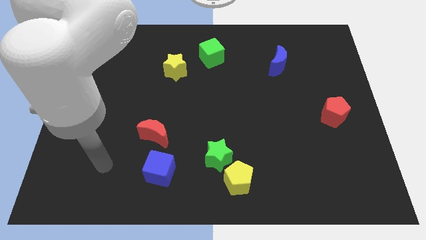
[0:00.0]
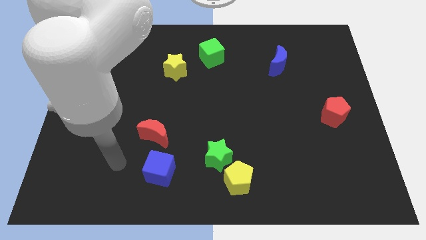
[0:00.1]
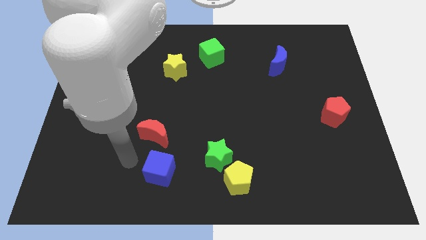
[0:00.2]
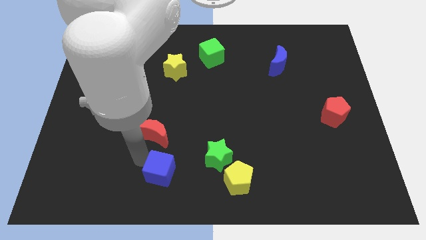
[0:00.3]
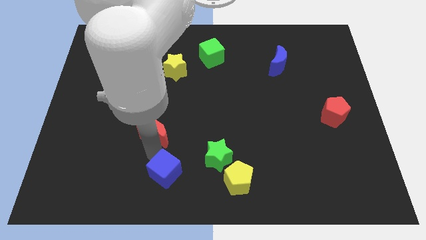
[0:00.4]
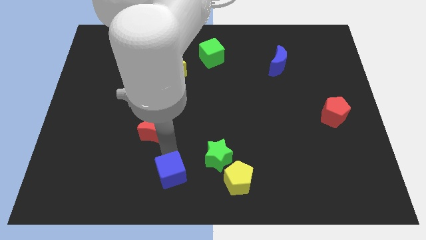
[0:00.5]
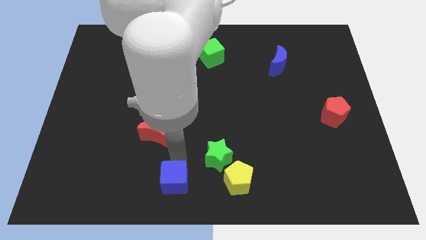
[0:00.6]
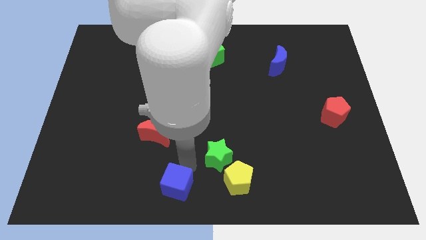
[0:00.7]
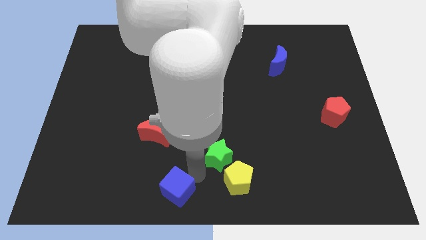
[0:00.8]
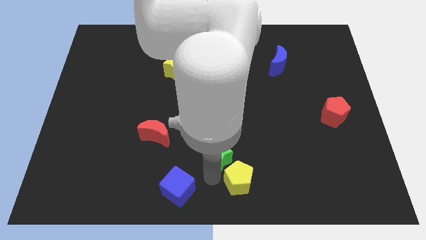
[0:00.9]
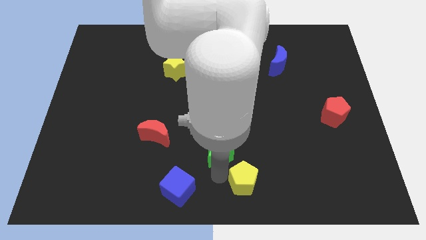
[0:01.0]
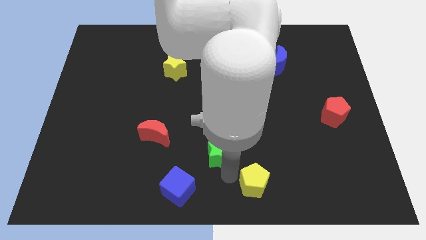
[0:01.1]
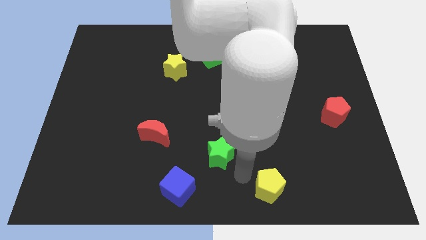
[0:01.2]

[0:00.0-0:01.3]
pull the green star apart from the yellow pentagon

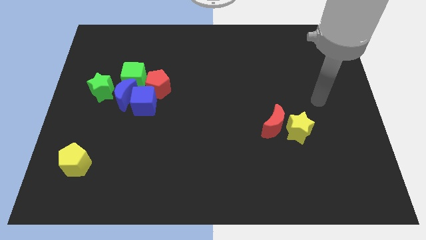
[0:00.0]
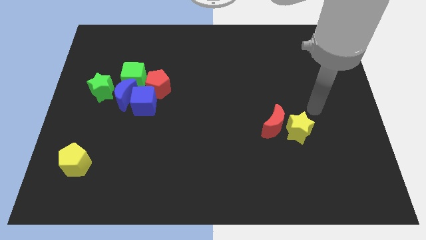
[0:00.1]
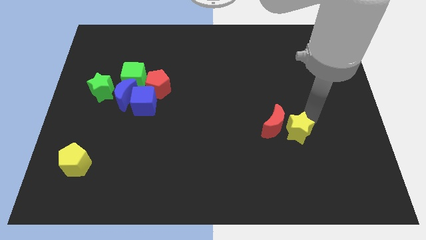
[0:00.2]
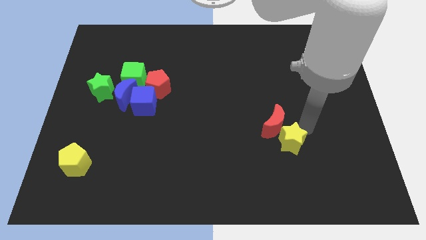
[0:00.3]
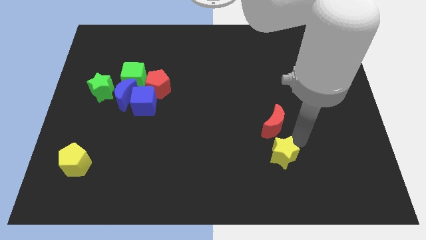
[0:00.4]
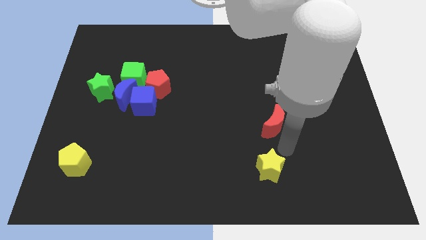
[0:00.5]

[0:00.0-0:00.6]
move the red moon away from the yellow star

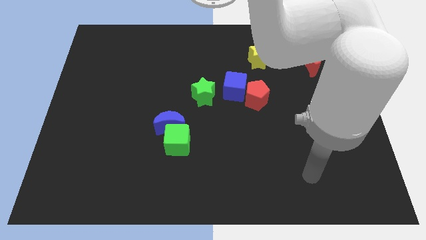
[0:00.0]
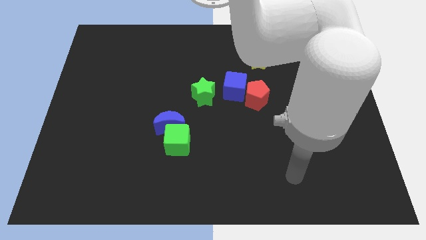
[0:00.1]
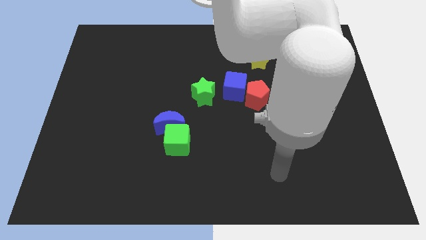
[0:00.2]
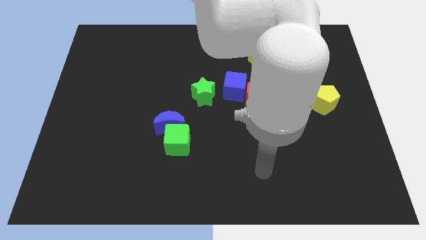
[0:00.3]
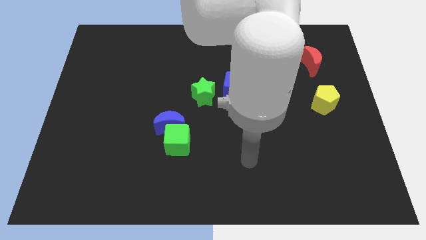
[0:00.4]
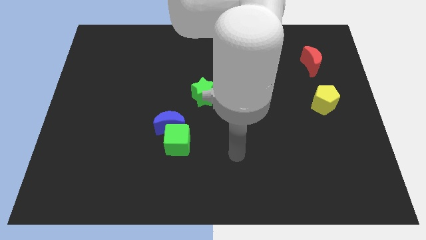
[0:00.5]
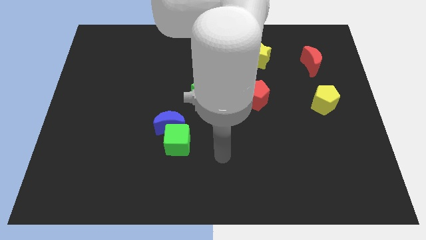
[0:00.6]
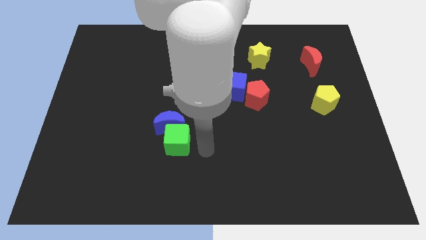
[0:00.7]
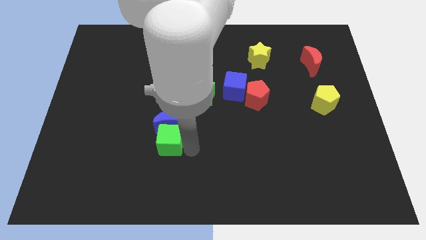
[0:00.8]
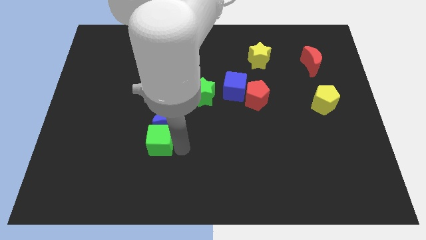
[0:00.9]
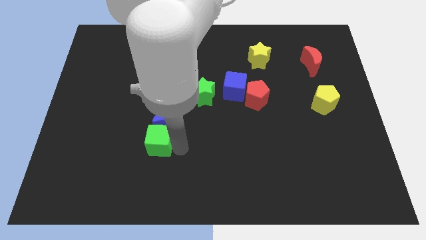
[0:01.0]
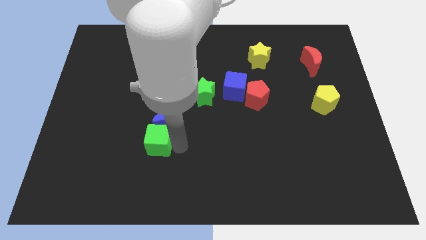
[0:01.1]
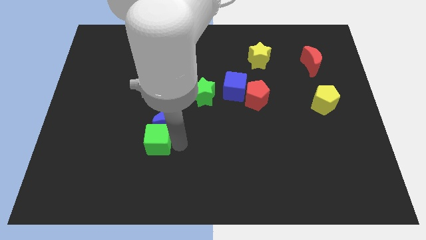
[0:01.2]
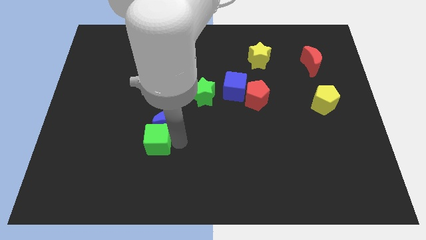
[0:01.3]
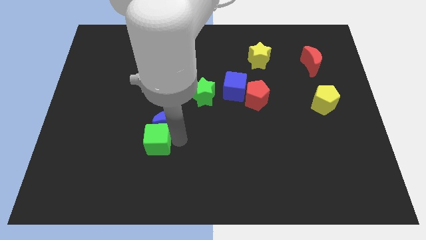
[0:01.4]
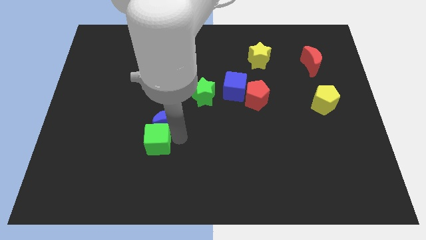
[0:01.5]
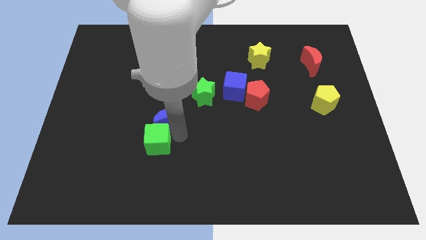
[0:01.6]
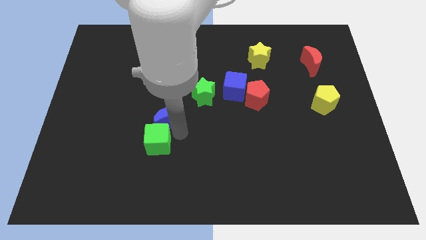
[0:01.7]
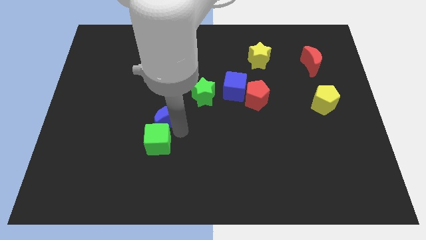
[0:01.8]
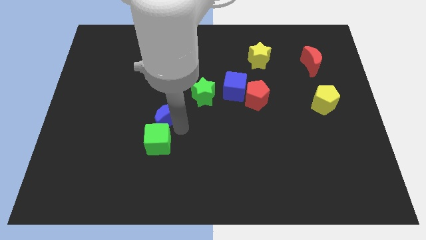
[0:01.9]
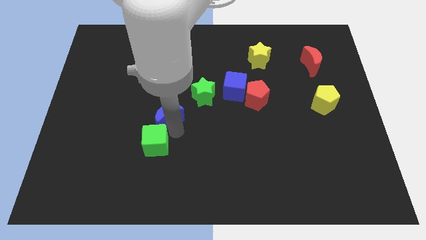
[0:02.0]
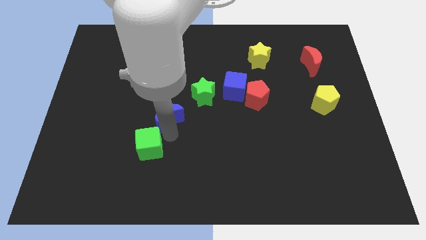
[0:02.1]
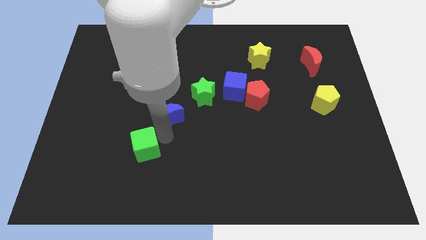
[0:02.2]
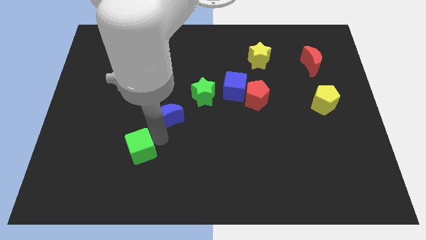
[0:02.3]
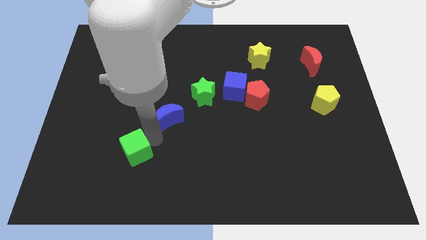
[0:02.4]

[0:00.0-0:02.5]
move the blue moon away from the green cube

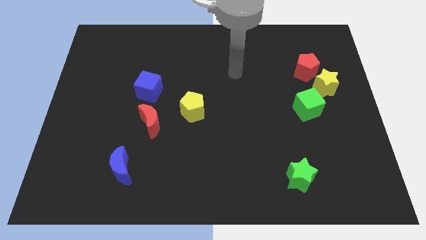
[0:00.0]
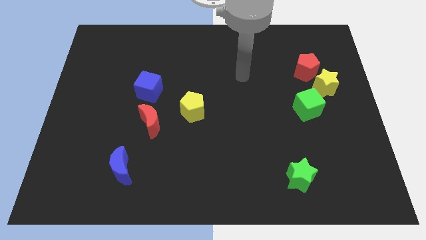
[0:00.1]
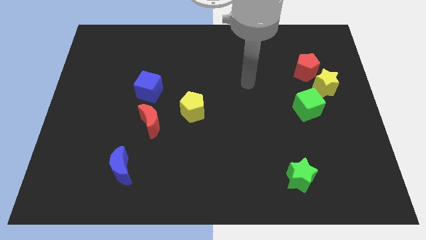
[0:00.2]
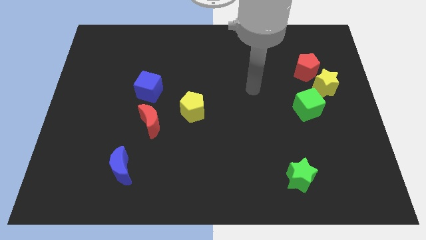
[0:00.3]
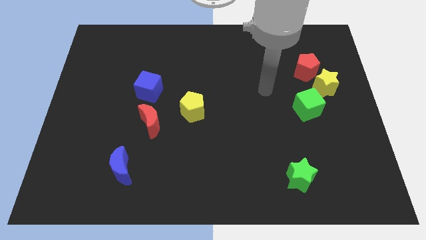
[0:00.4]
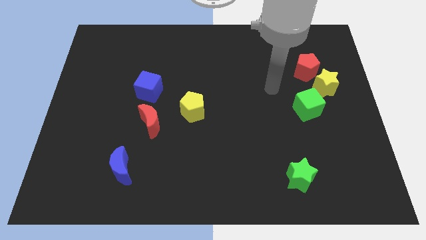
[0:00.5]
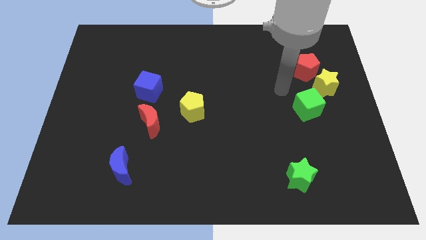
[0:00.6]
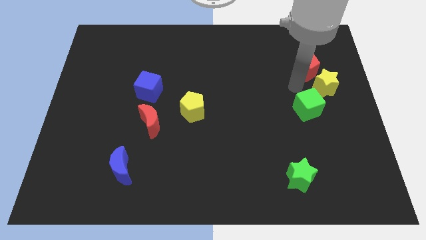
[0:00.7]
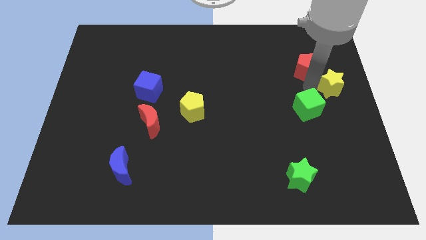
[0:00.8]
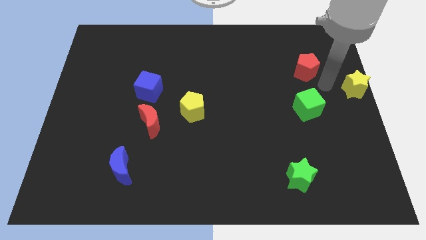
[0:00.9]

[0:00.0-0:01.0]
pull the red pentagon apart from the yellow star

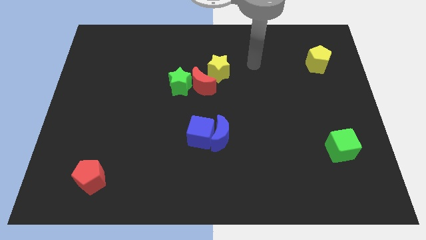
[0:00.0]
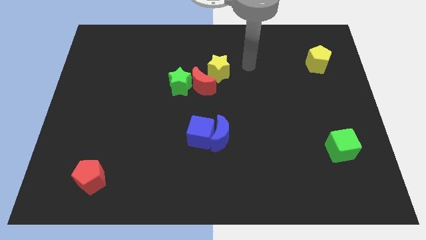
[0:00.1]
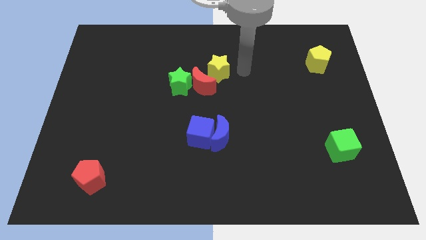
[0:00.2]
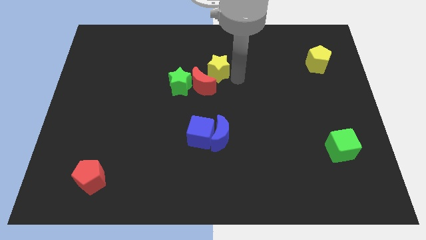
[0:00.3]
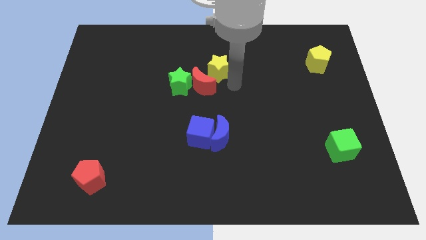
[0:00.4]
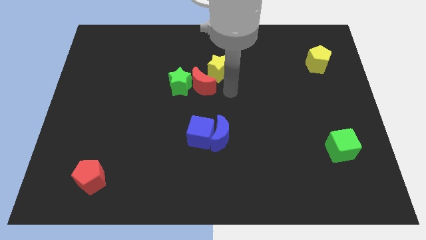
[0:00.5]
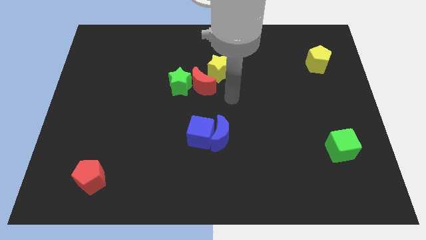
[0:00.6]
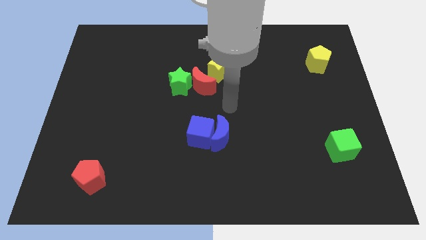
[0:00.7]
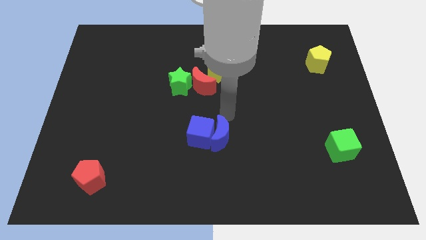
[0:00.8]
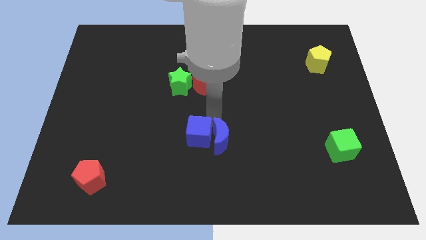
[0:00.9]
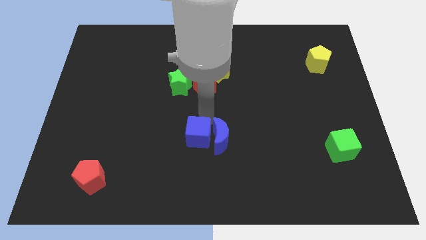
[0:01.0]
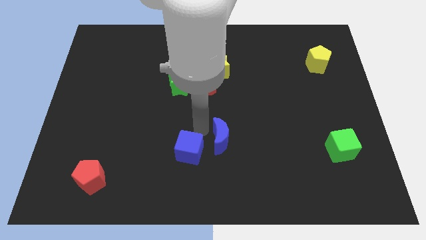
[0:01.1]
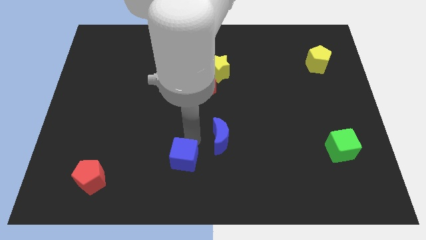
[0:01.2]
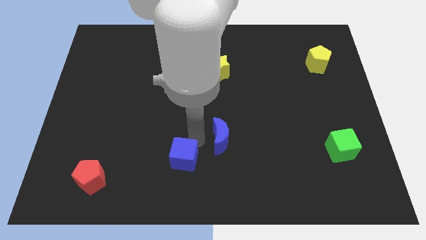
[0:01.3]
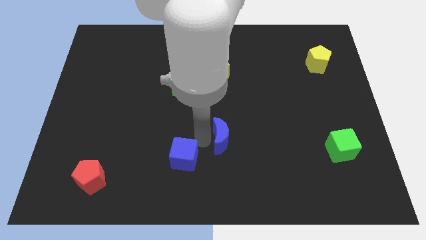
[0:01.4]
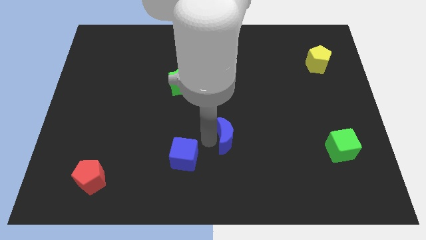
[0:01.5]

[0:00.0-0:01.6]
separate the blue moon from the blue cube

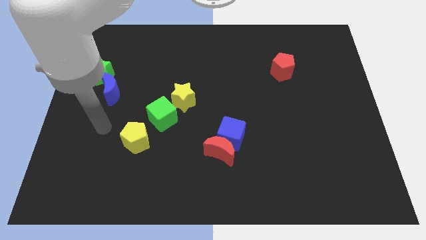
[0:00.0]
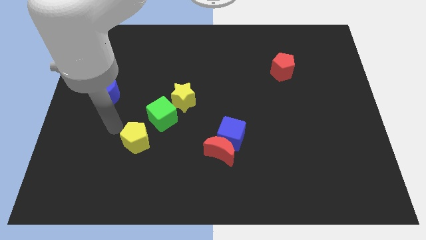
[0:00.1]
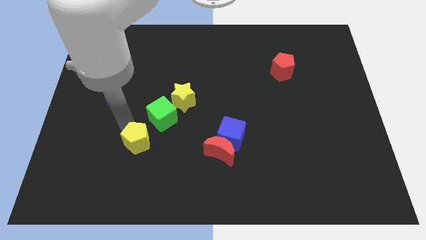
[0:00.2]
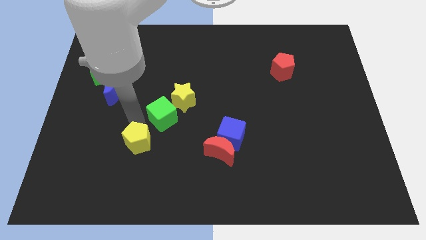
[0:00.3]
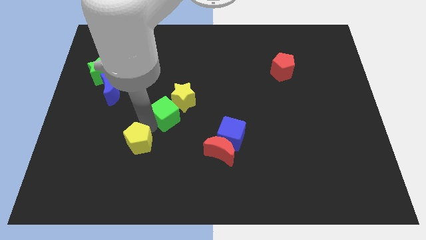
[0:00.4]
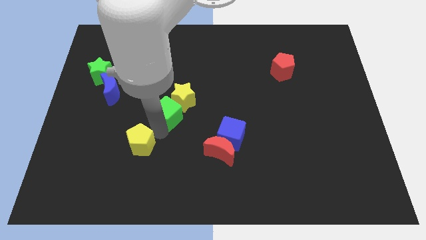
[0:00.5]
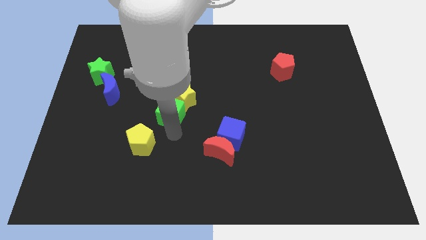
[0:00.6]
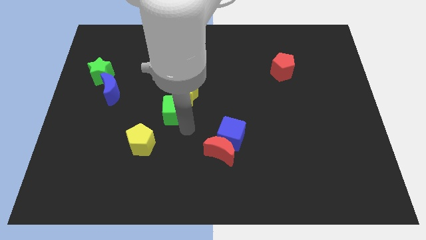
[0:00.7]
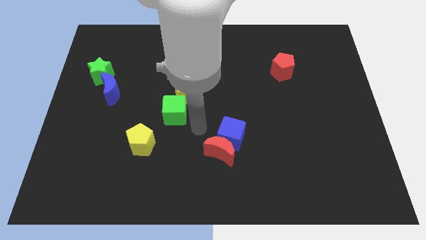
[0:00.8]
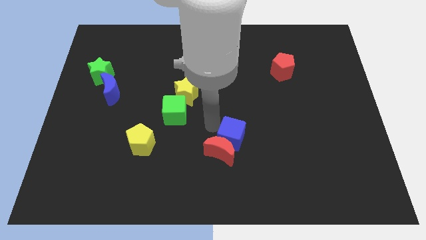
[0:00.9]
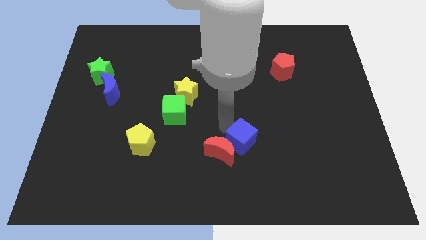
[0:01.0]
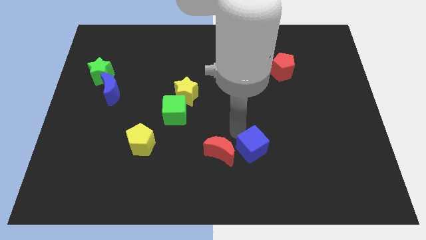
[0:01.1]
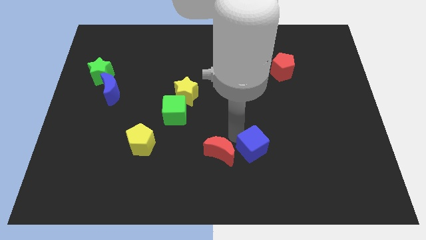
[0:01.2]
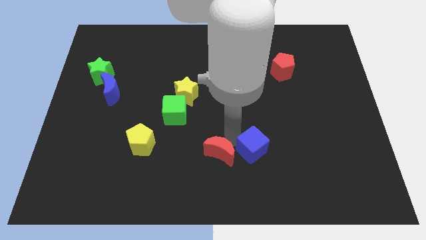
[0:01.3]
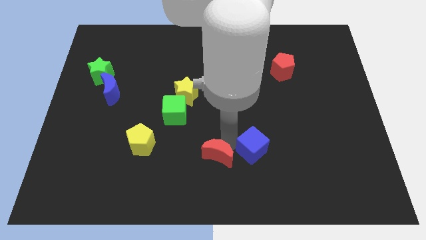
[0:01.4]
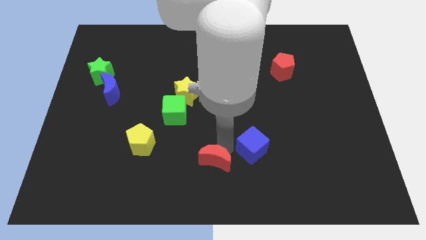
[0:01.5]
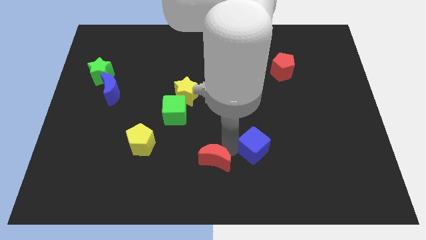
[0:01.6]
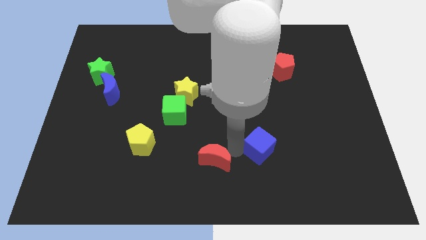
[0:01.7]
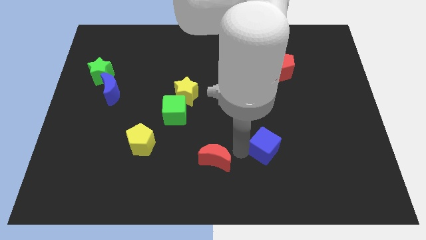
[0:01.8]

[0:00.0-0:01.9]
separate the red moon from the blue cube

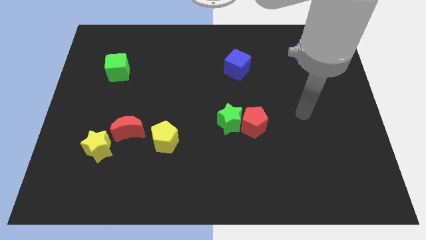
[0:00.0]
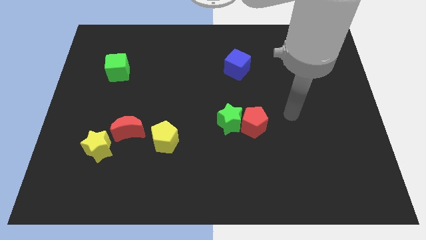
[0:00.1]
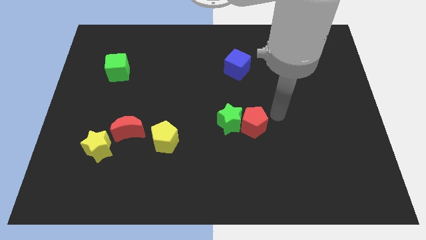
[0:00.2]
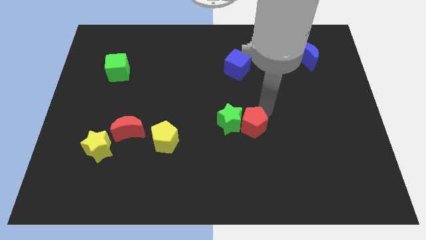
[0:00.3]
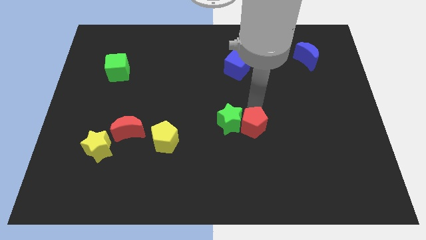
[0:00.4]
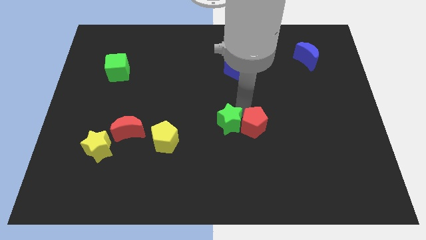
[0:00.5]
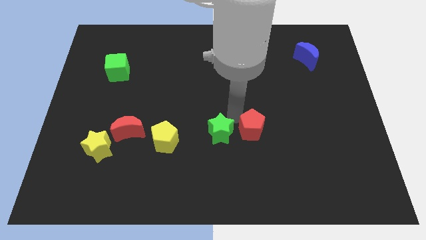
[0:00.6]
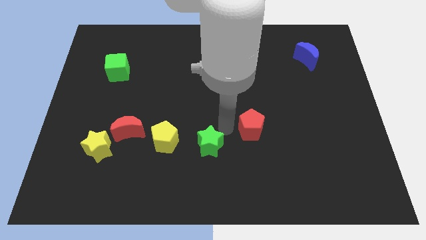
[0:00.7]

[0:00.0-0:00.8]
pull the red pentagon apart from the green star
